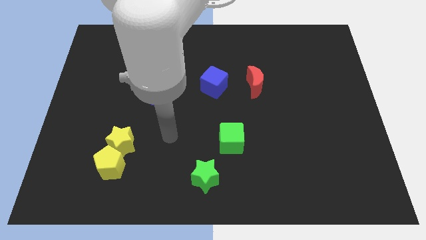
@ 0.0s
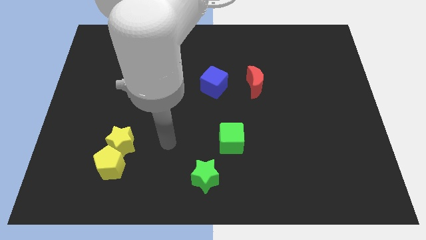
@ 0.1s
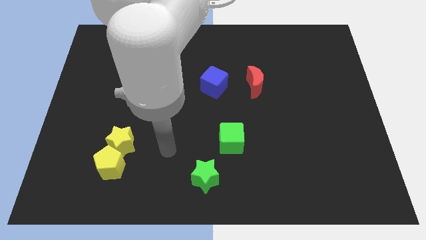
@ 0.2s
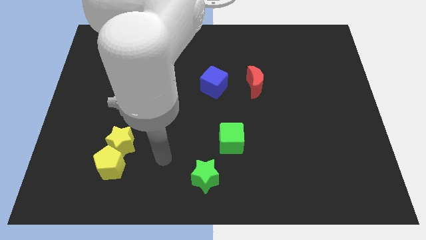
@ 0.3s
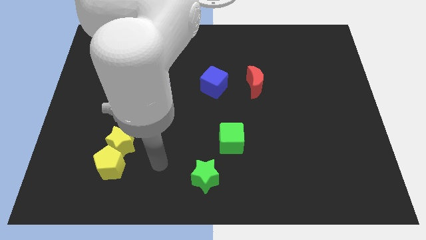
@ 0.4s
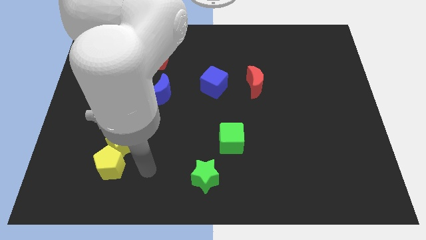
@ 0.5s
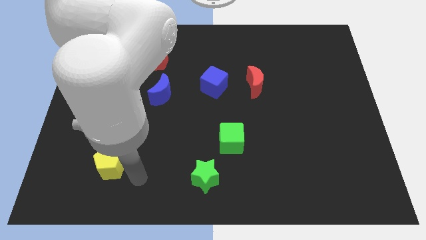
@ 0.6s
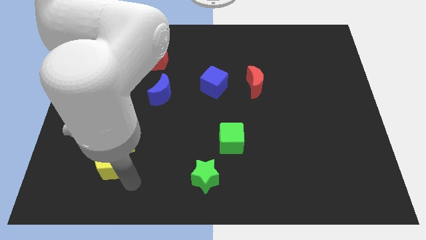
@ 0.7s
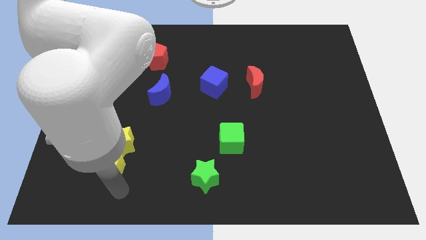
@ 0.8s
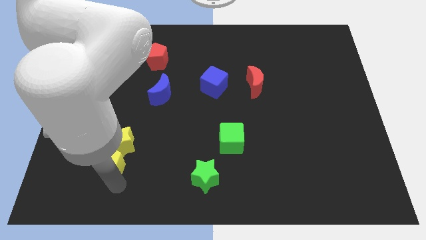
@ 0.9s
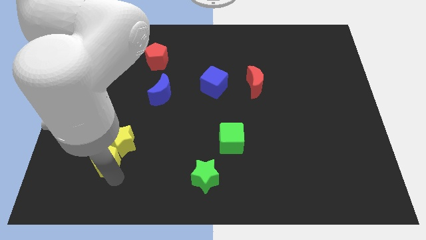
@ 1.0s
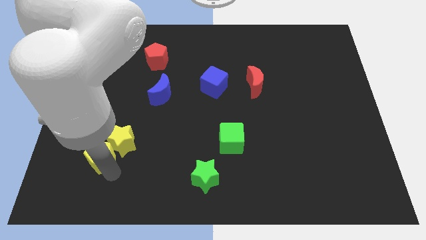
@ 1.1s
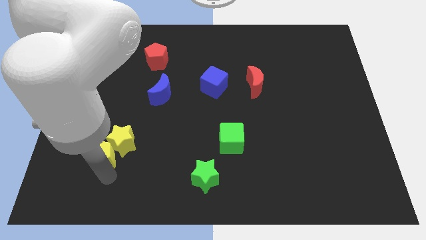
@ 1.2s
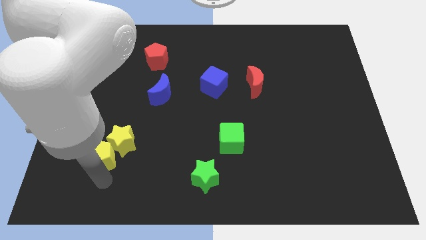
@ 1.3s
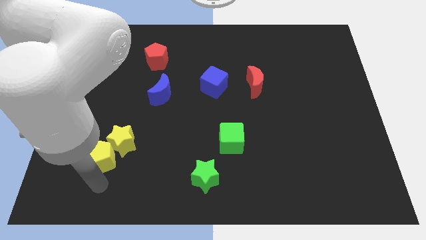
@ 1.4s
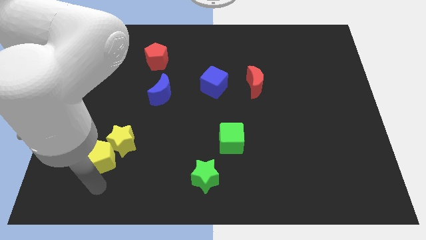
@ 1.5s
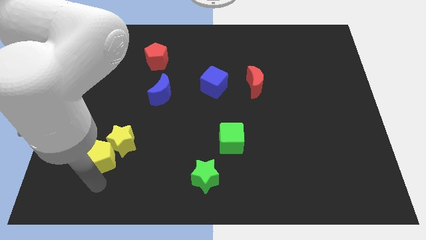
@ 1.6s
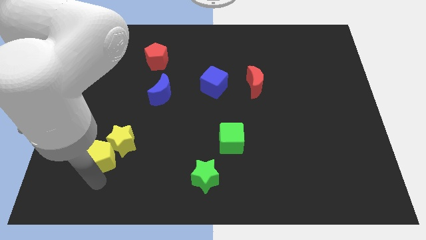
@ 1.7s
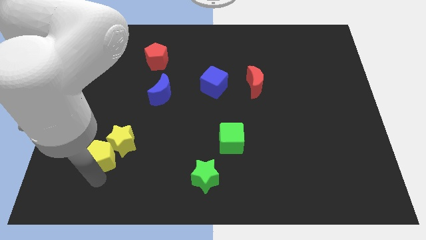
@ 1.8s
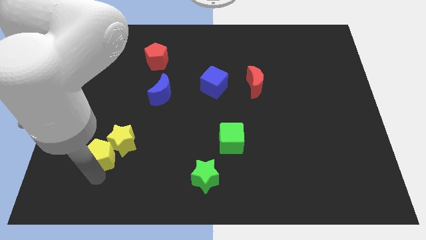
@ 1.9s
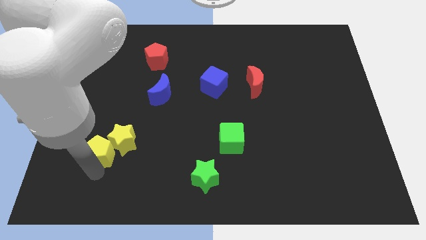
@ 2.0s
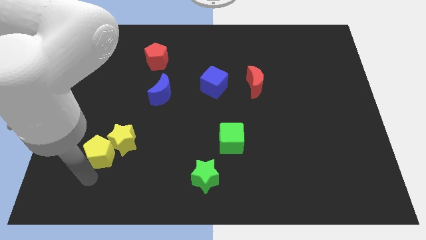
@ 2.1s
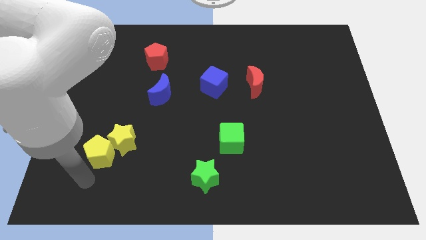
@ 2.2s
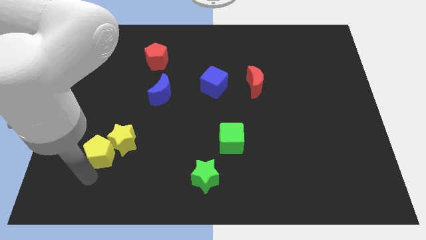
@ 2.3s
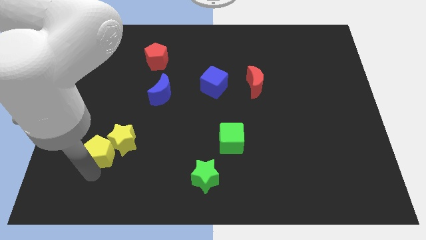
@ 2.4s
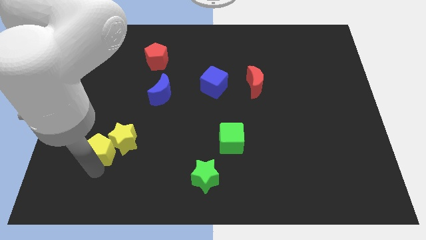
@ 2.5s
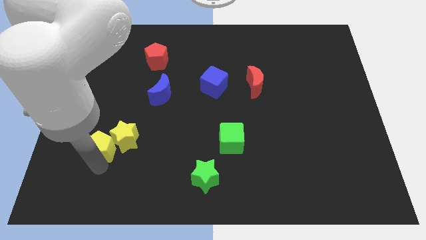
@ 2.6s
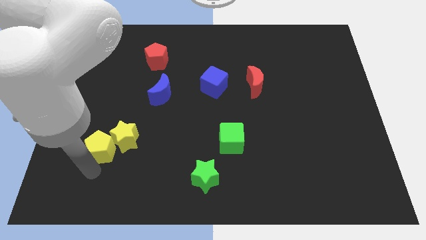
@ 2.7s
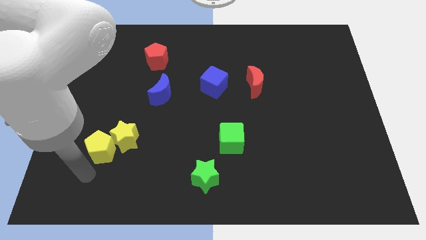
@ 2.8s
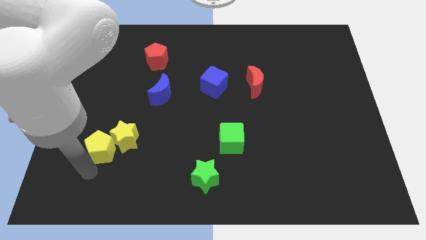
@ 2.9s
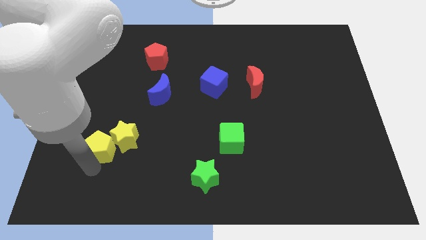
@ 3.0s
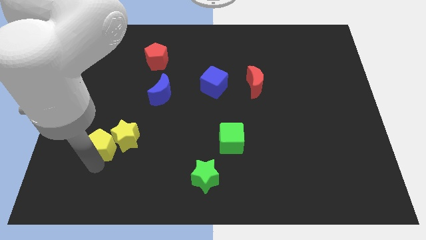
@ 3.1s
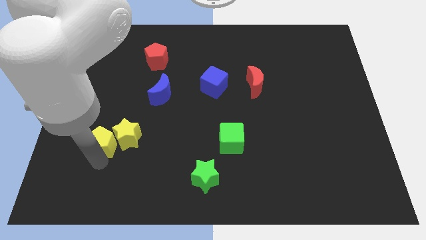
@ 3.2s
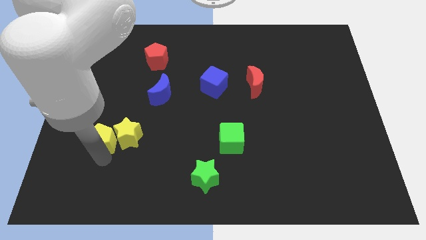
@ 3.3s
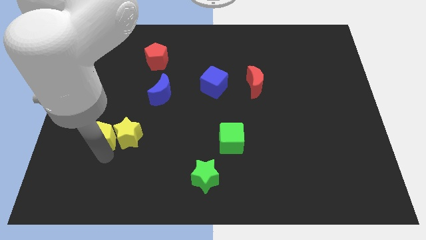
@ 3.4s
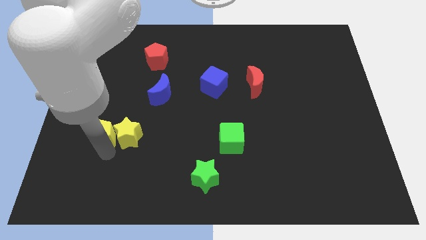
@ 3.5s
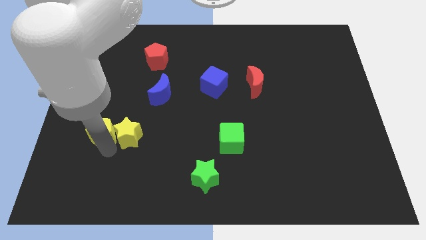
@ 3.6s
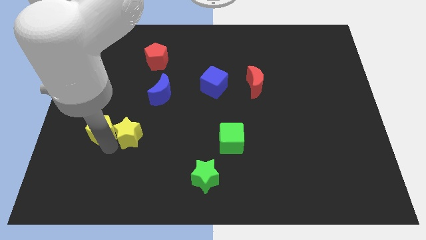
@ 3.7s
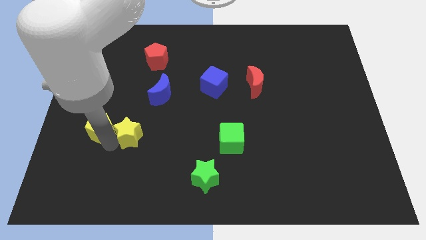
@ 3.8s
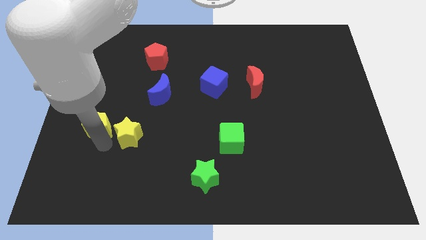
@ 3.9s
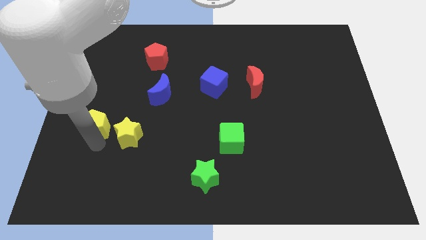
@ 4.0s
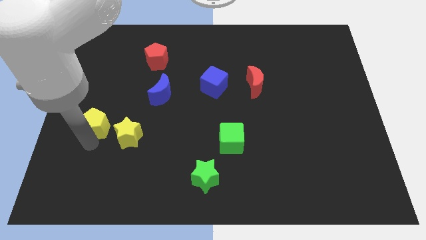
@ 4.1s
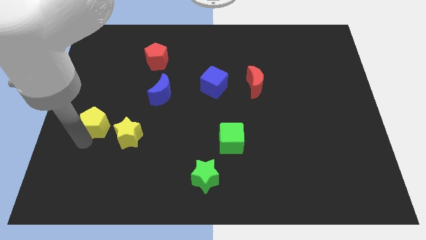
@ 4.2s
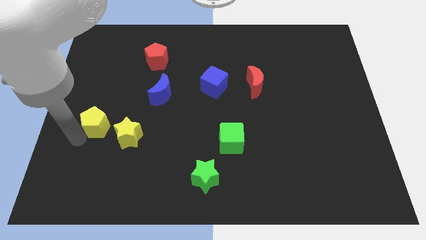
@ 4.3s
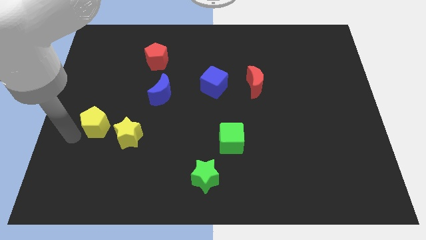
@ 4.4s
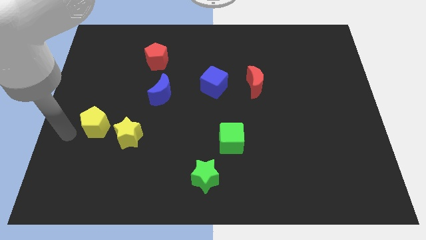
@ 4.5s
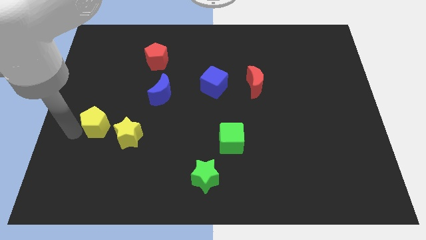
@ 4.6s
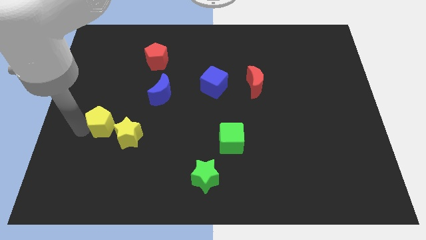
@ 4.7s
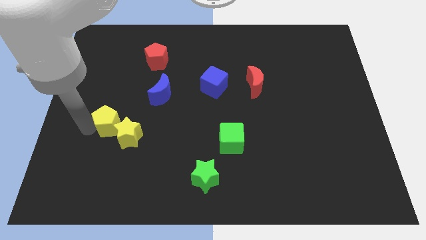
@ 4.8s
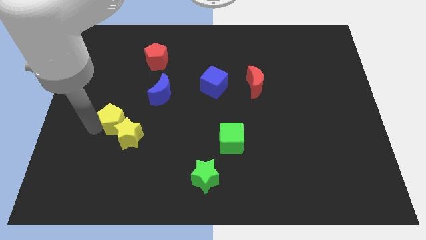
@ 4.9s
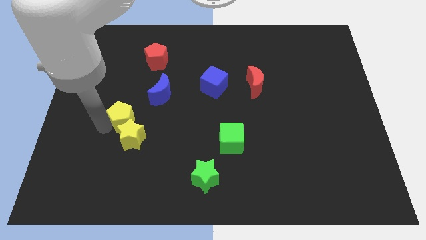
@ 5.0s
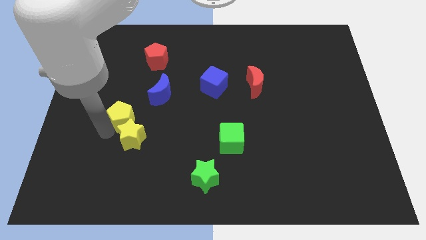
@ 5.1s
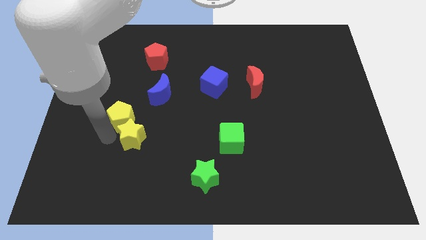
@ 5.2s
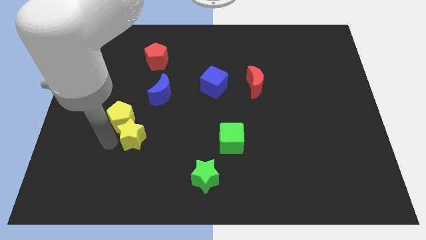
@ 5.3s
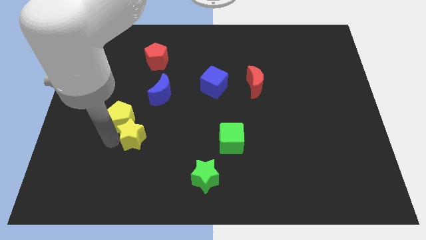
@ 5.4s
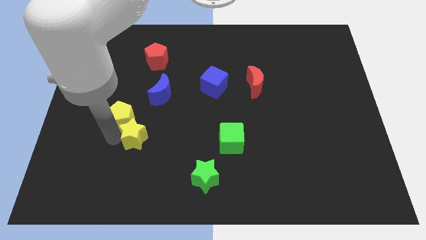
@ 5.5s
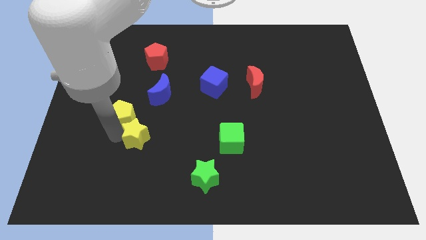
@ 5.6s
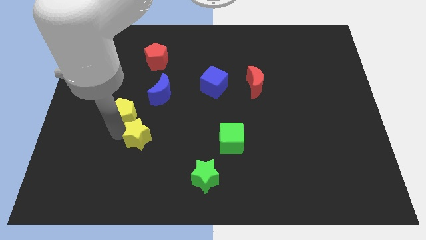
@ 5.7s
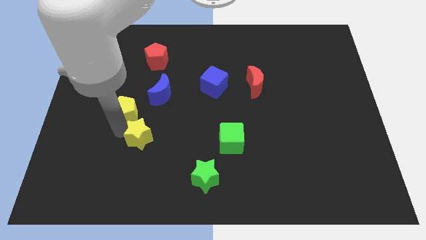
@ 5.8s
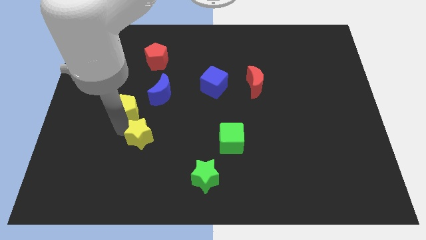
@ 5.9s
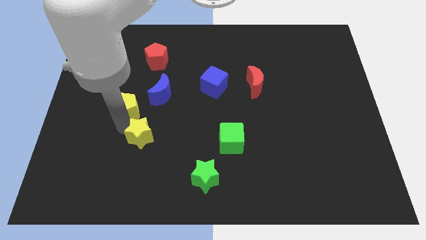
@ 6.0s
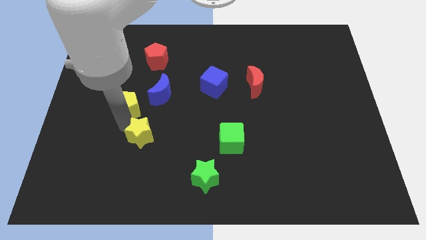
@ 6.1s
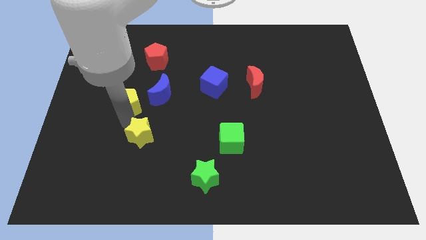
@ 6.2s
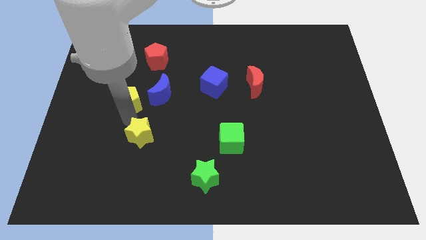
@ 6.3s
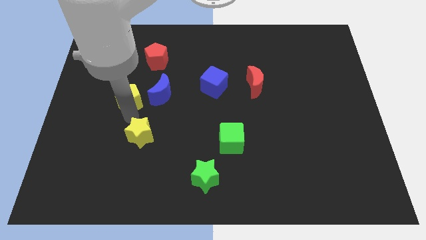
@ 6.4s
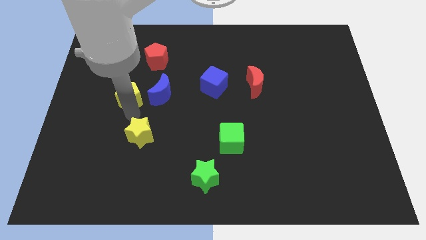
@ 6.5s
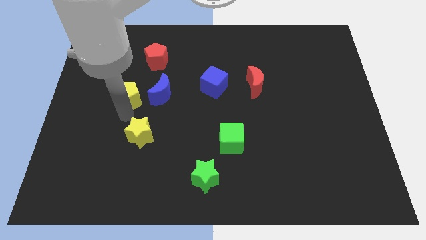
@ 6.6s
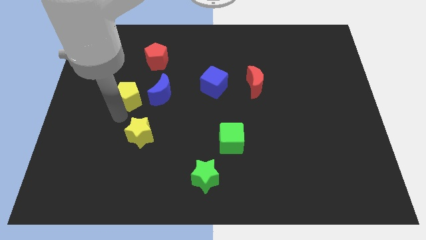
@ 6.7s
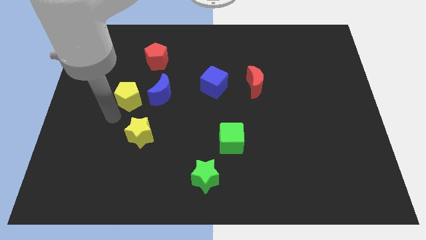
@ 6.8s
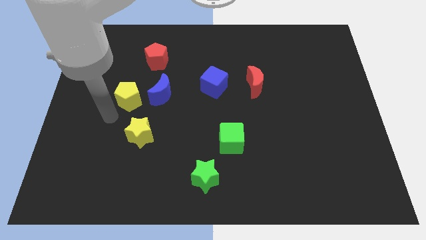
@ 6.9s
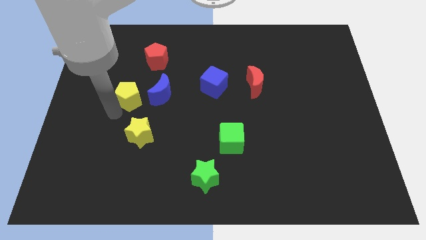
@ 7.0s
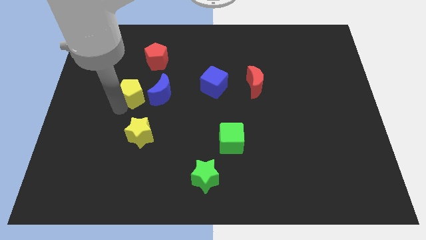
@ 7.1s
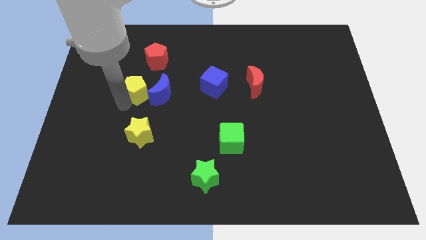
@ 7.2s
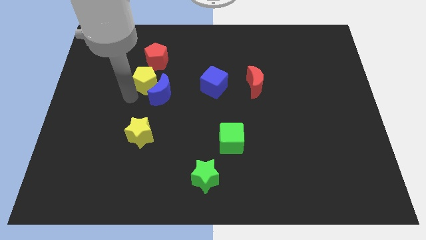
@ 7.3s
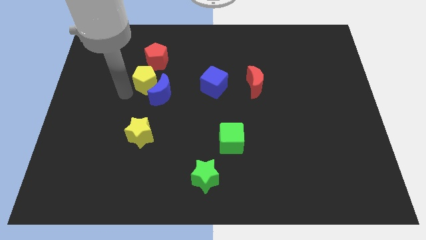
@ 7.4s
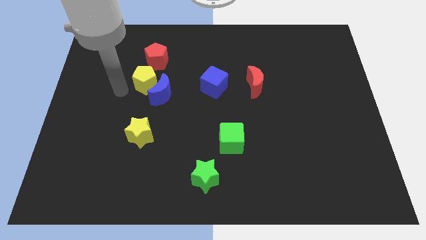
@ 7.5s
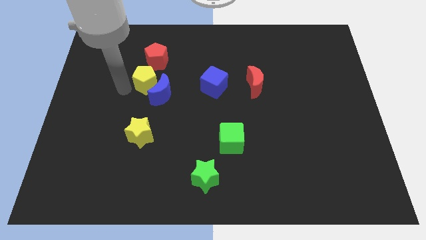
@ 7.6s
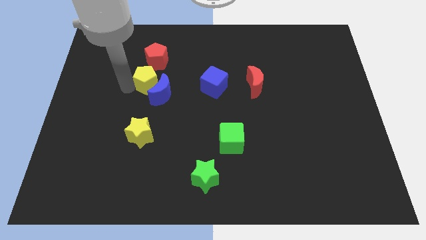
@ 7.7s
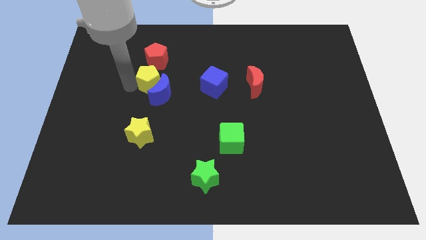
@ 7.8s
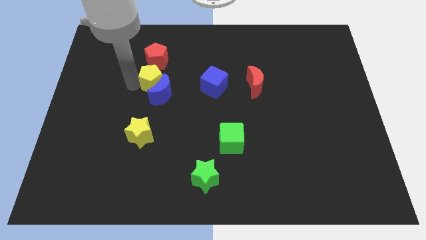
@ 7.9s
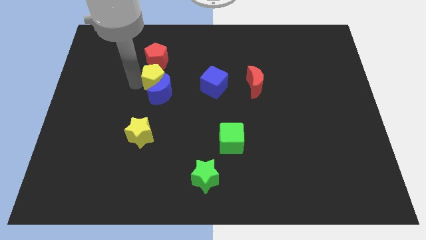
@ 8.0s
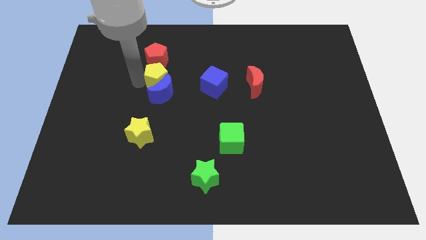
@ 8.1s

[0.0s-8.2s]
push the yellow pentagon to the bottom right of the red pentagon
